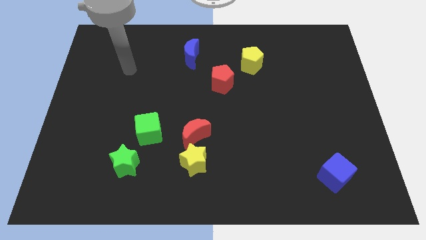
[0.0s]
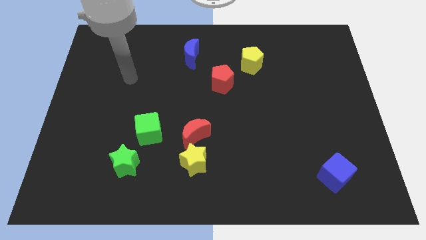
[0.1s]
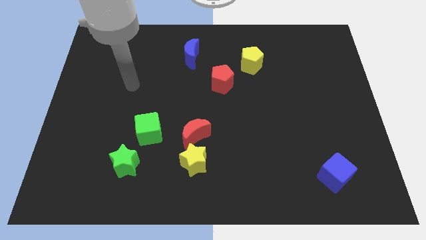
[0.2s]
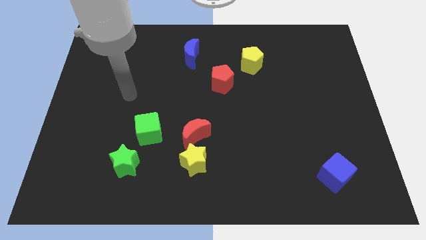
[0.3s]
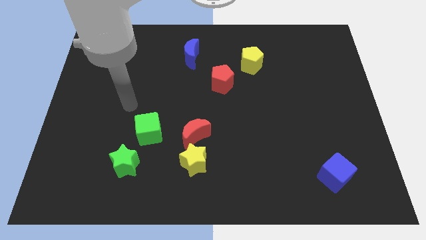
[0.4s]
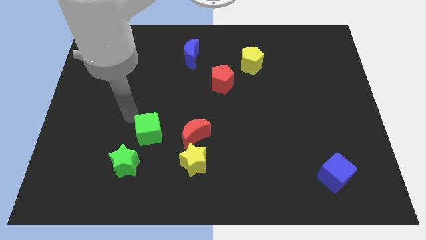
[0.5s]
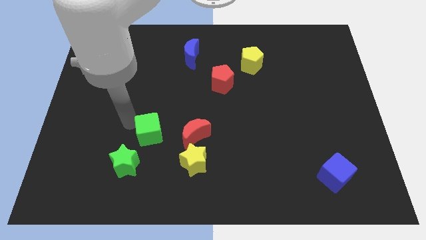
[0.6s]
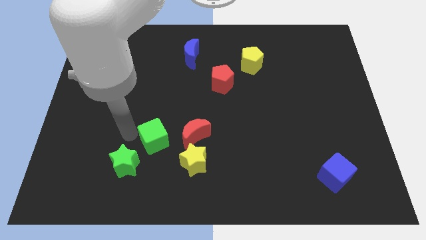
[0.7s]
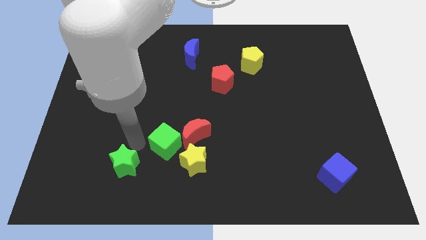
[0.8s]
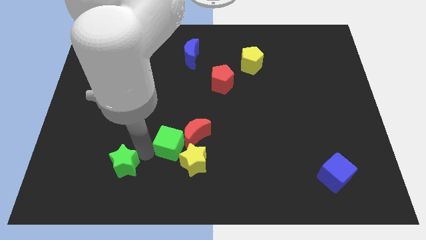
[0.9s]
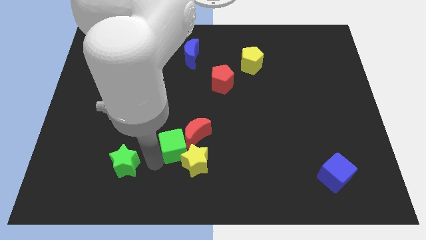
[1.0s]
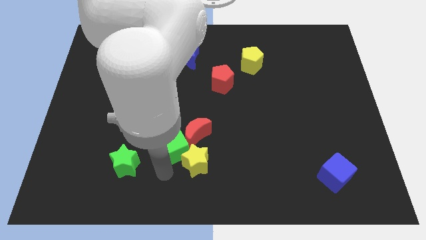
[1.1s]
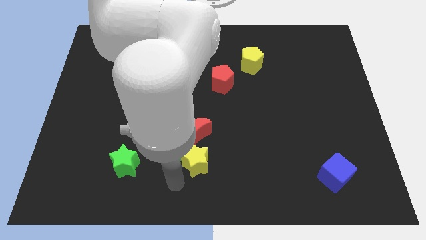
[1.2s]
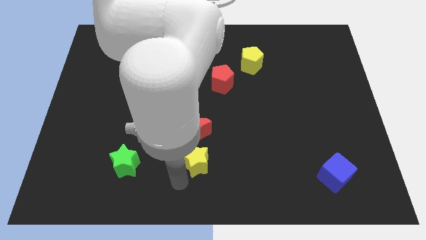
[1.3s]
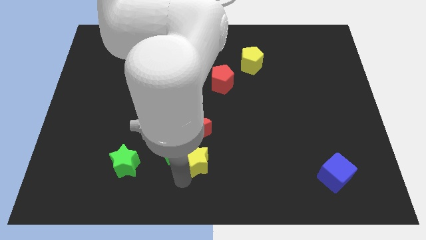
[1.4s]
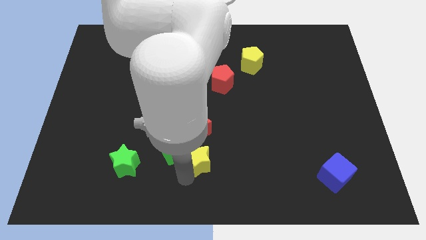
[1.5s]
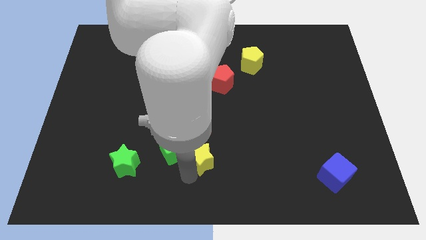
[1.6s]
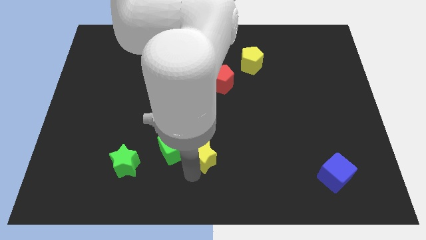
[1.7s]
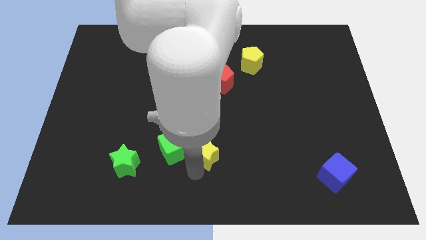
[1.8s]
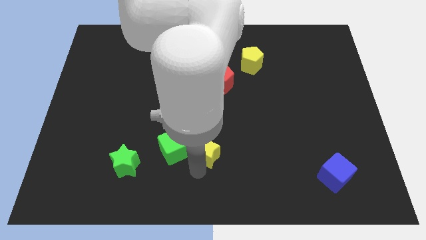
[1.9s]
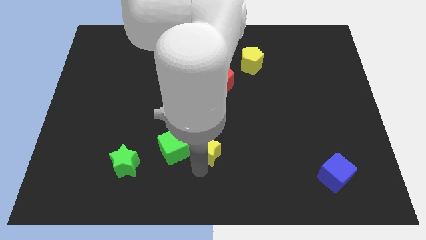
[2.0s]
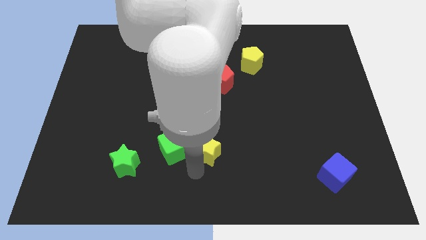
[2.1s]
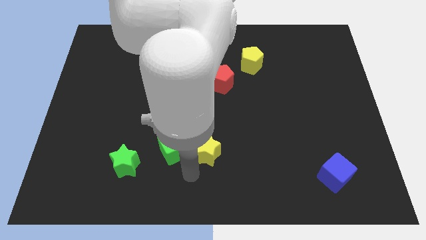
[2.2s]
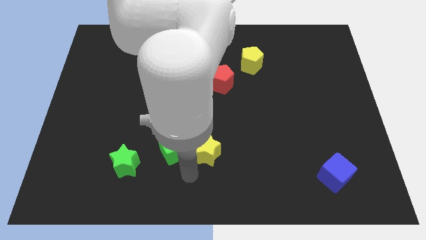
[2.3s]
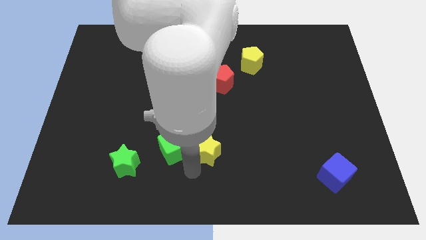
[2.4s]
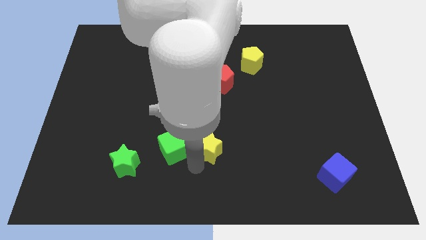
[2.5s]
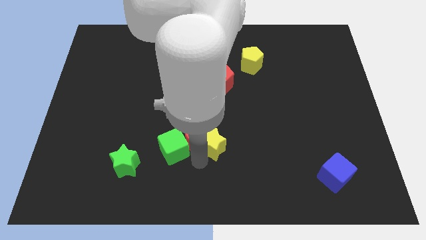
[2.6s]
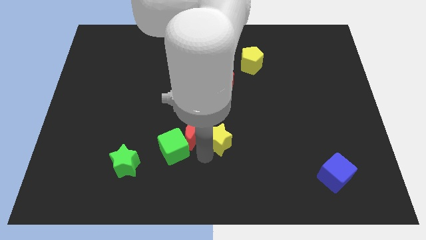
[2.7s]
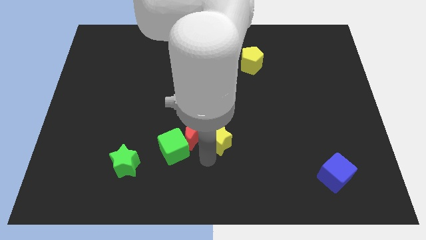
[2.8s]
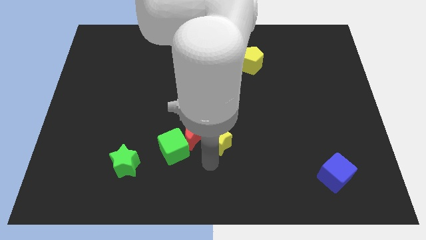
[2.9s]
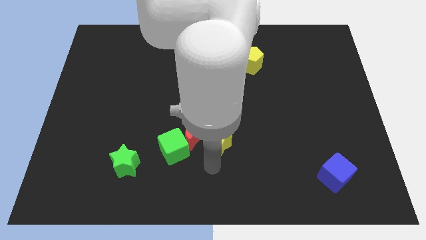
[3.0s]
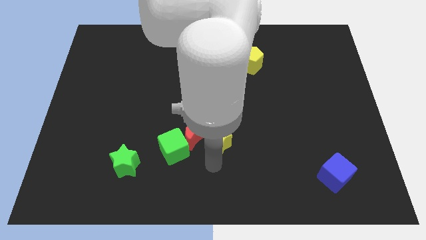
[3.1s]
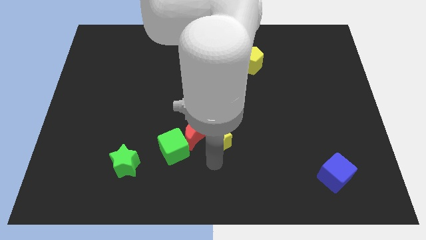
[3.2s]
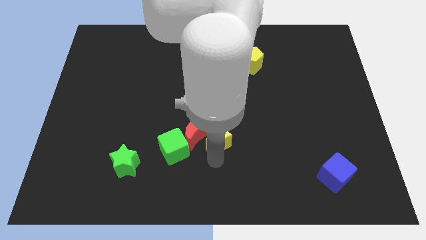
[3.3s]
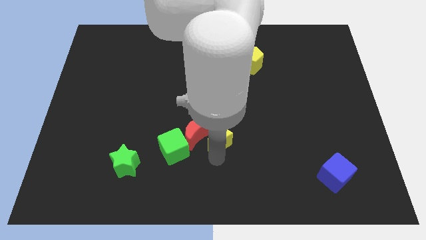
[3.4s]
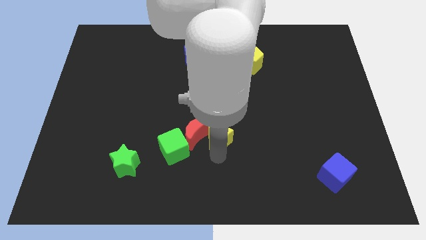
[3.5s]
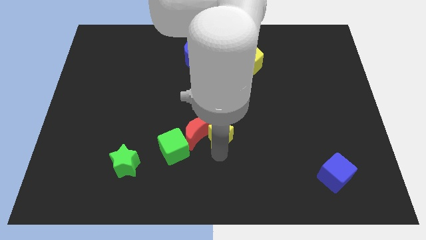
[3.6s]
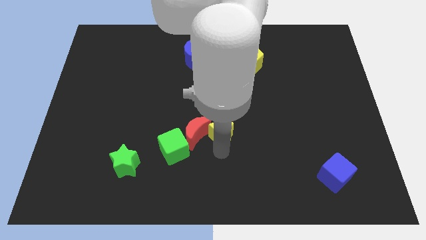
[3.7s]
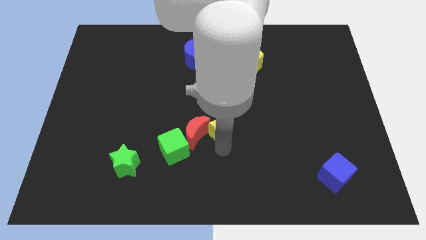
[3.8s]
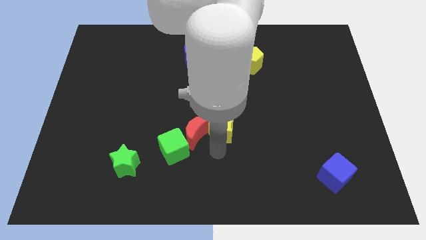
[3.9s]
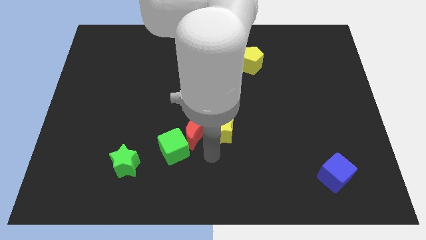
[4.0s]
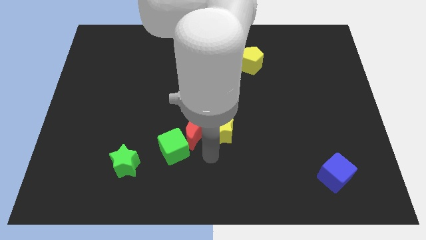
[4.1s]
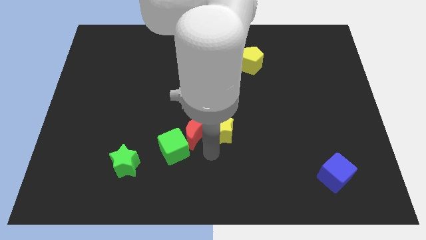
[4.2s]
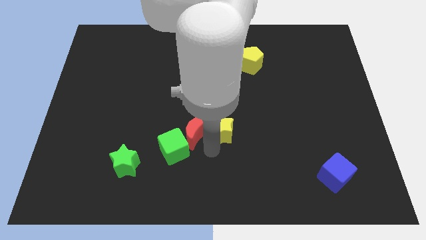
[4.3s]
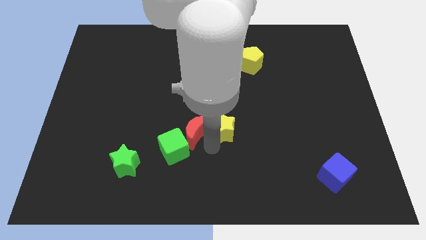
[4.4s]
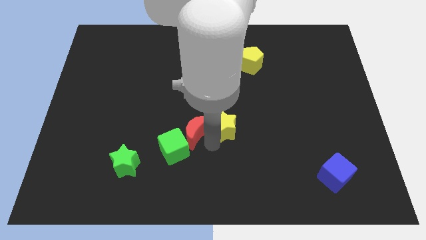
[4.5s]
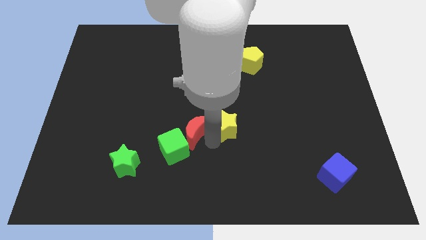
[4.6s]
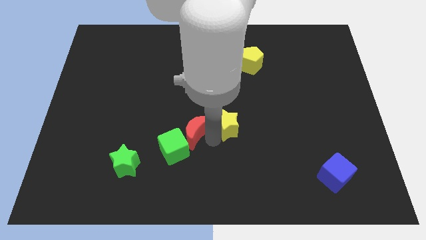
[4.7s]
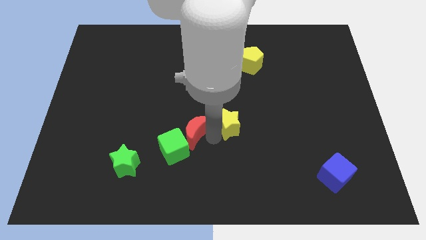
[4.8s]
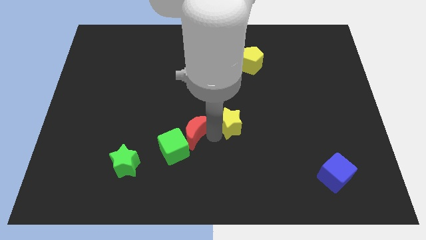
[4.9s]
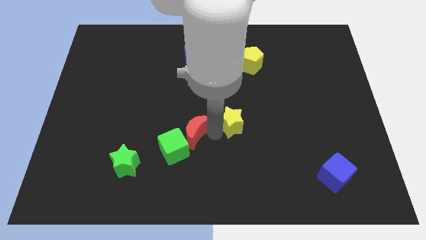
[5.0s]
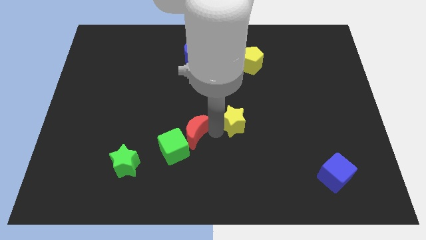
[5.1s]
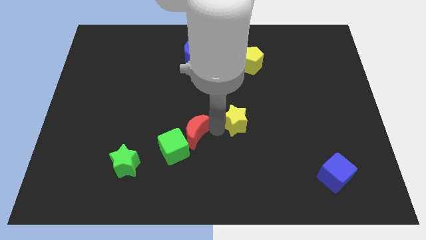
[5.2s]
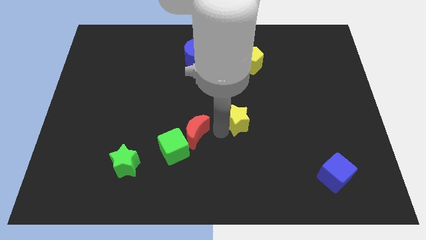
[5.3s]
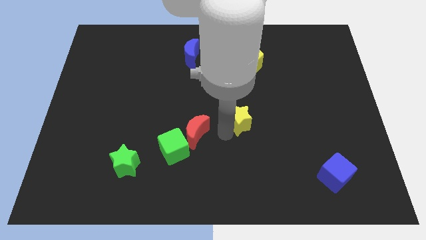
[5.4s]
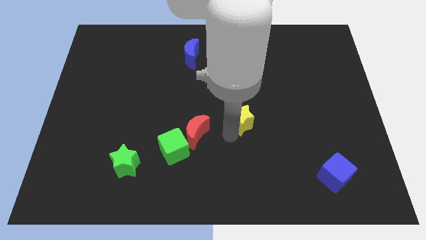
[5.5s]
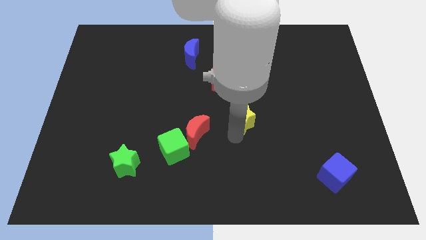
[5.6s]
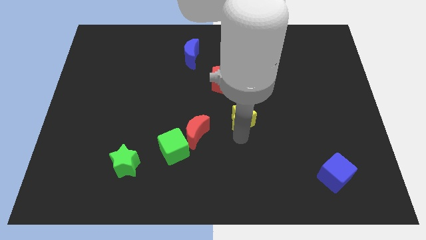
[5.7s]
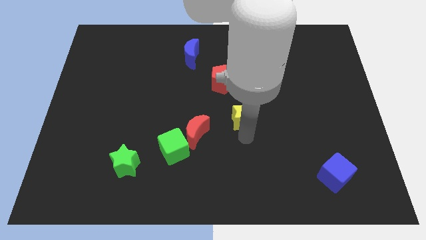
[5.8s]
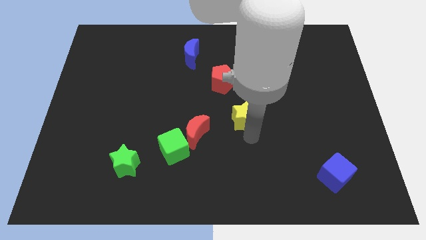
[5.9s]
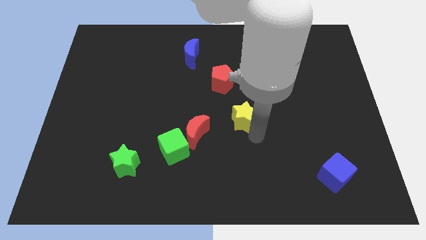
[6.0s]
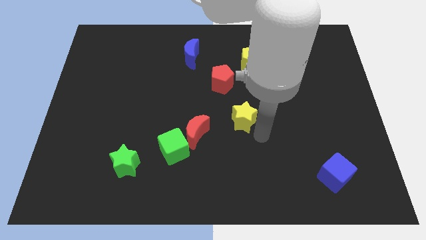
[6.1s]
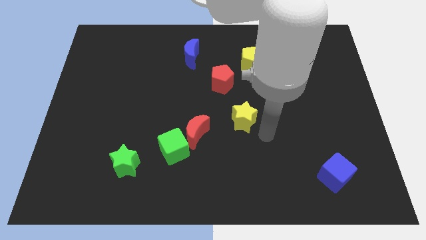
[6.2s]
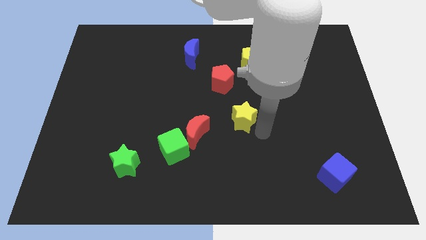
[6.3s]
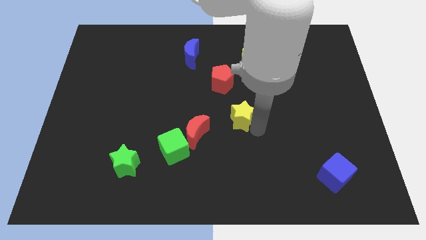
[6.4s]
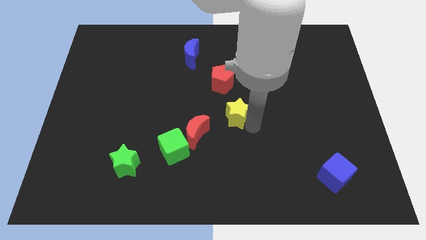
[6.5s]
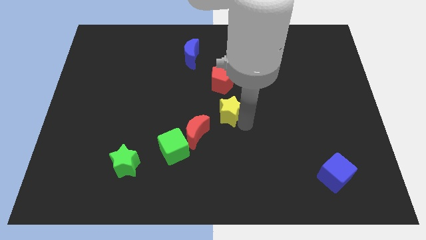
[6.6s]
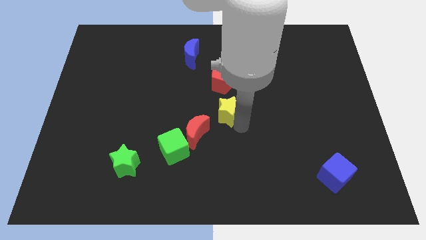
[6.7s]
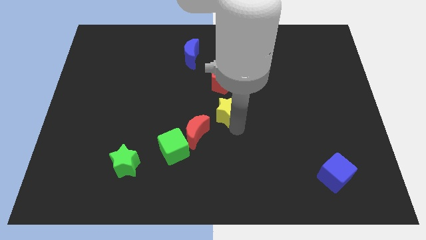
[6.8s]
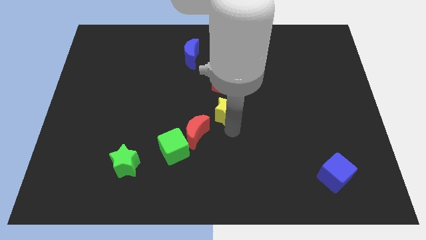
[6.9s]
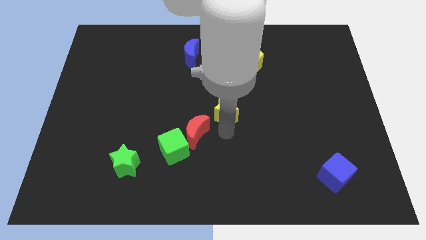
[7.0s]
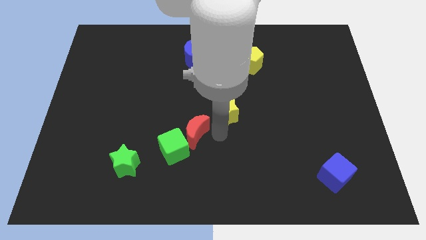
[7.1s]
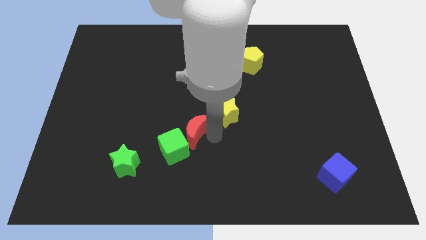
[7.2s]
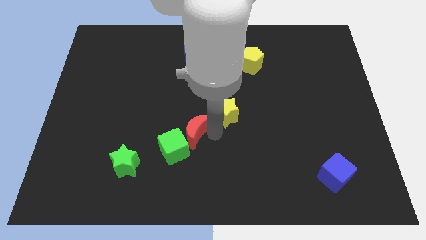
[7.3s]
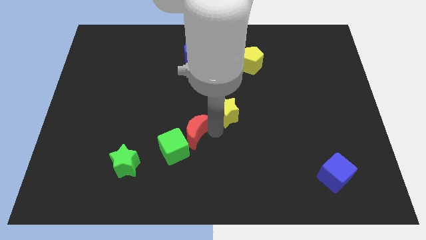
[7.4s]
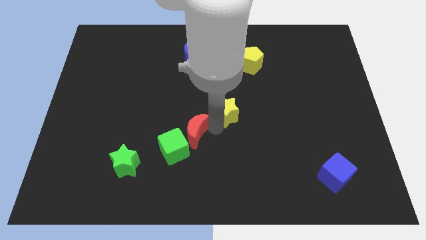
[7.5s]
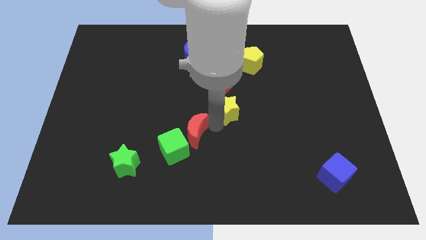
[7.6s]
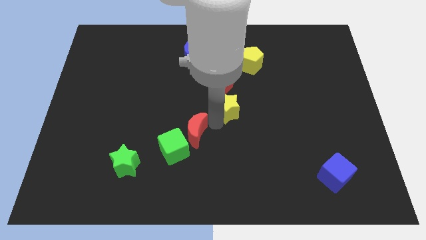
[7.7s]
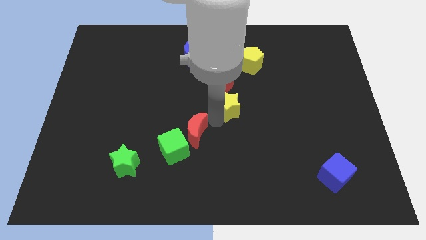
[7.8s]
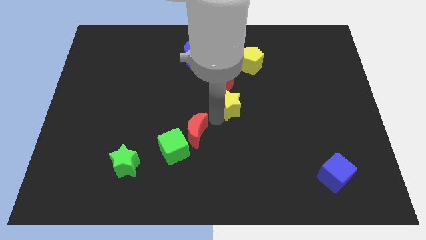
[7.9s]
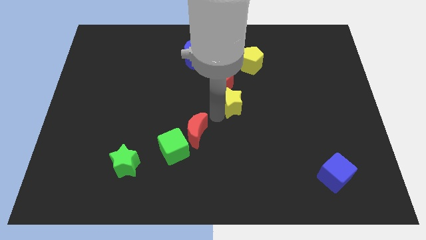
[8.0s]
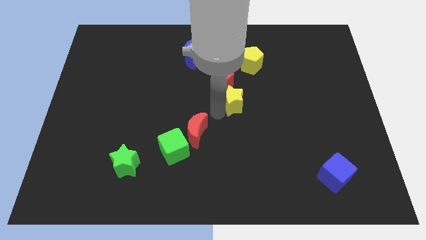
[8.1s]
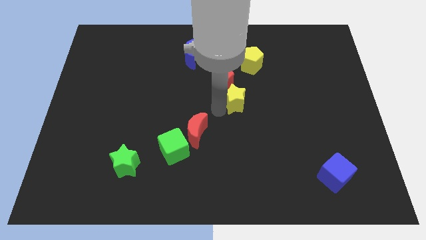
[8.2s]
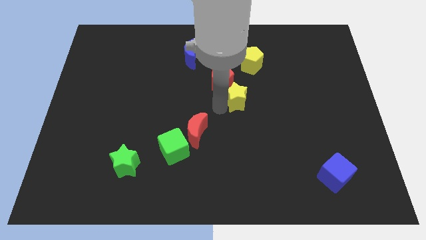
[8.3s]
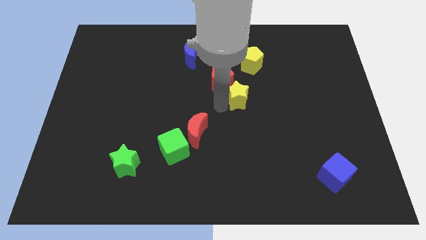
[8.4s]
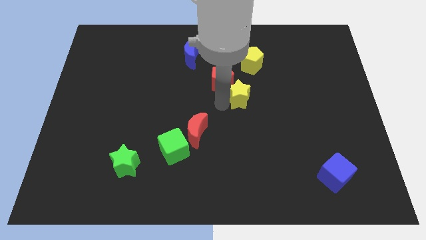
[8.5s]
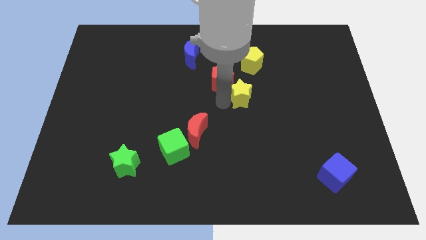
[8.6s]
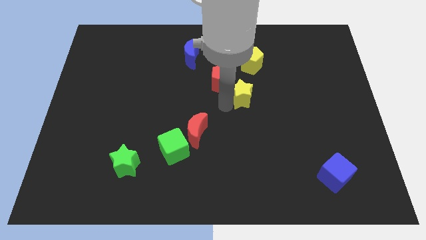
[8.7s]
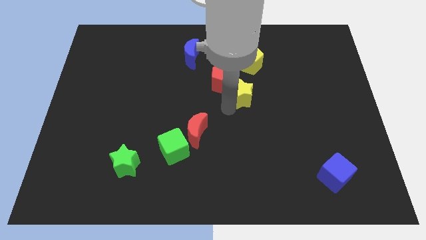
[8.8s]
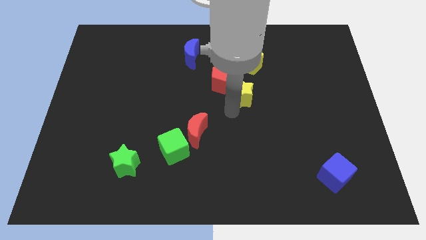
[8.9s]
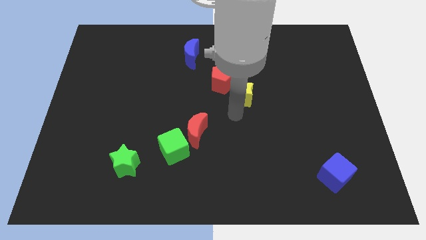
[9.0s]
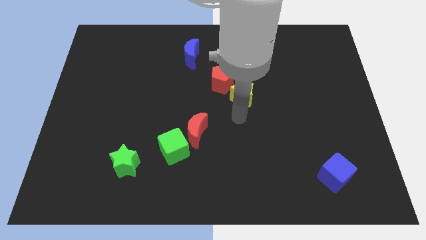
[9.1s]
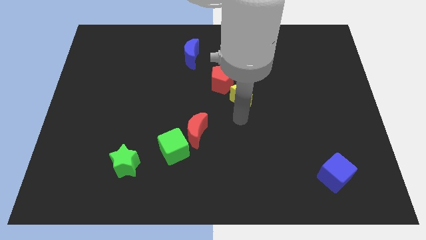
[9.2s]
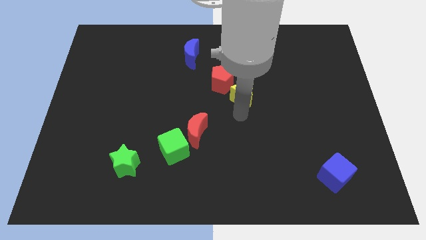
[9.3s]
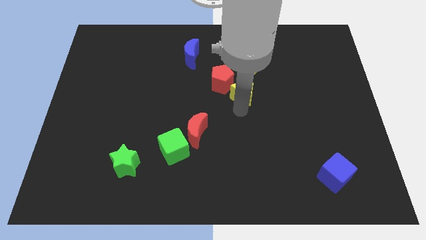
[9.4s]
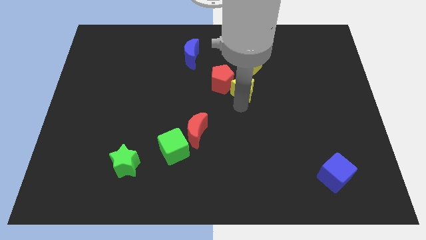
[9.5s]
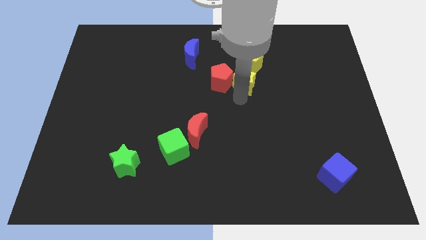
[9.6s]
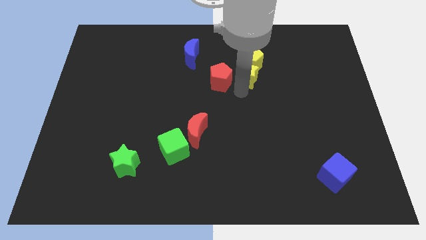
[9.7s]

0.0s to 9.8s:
put the yellow star towards the yellow pentagon
